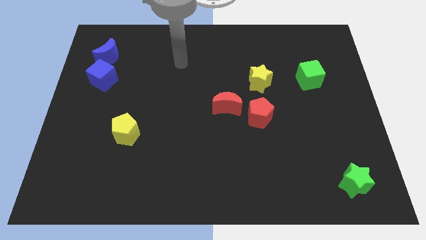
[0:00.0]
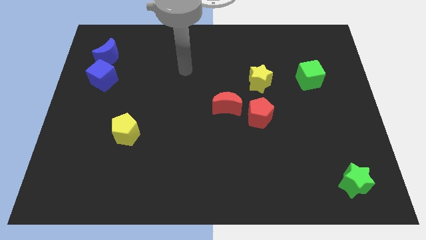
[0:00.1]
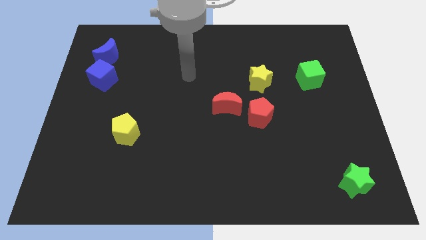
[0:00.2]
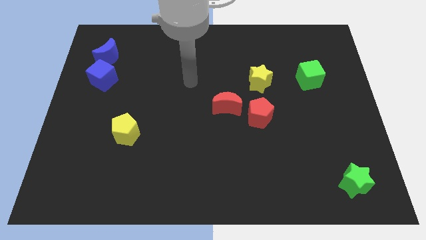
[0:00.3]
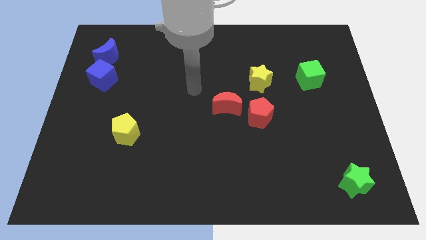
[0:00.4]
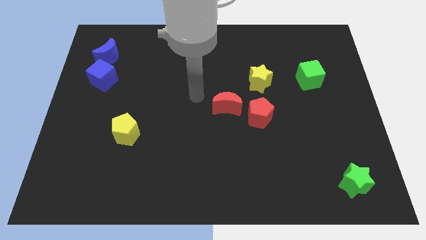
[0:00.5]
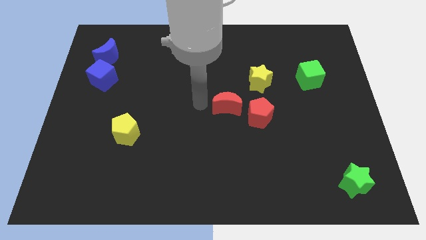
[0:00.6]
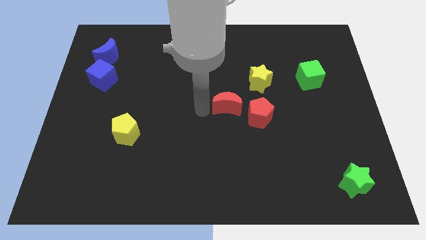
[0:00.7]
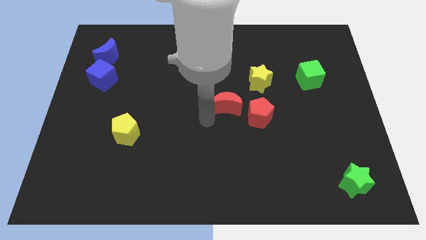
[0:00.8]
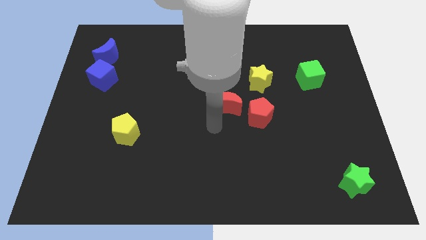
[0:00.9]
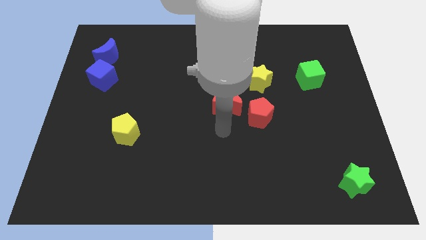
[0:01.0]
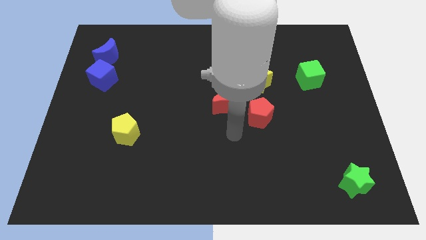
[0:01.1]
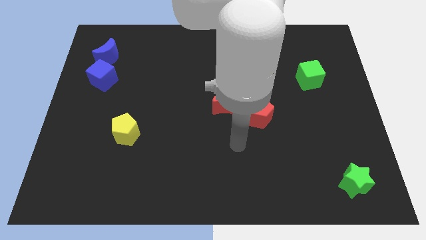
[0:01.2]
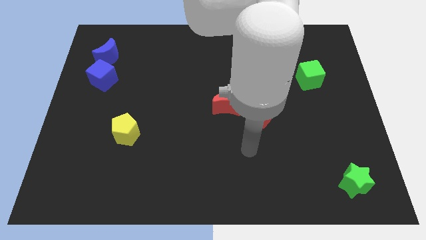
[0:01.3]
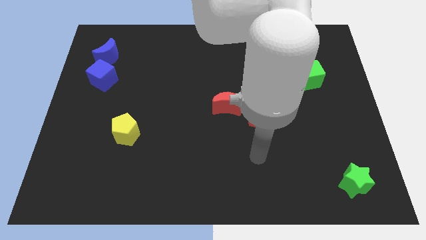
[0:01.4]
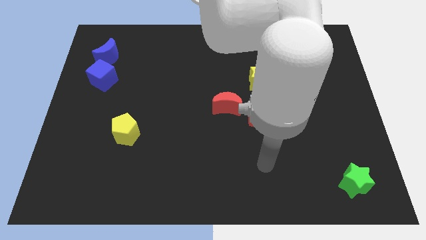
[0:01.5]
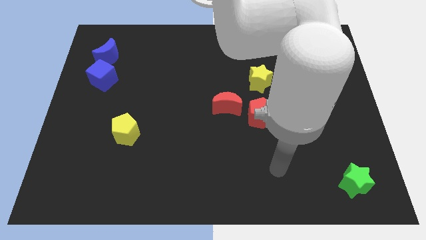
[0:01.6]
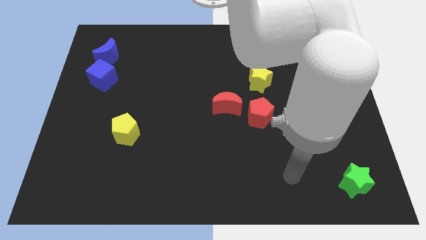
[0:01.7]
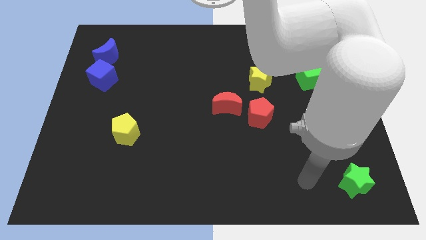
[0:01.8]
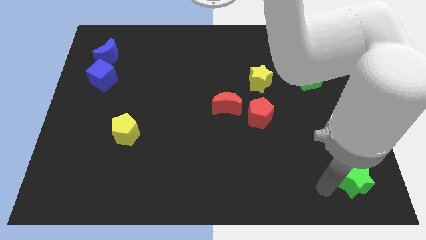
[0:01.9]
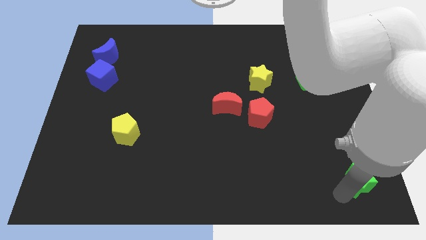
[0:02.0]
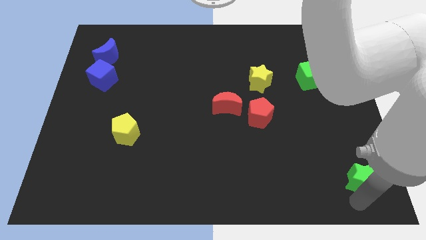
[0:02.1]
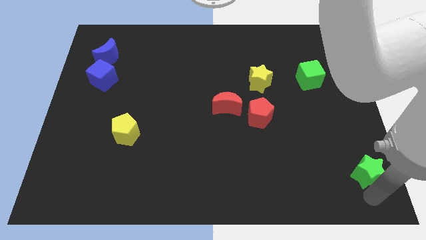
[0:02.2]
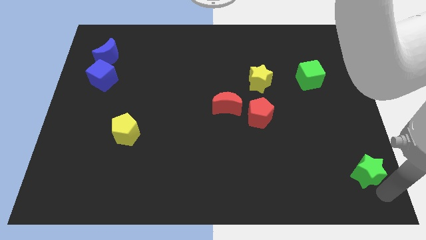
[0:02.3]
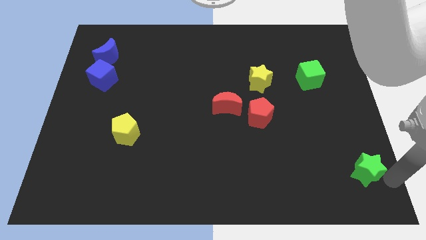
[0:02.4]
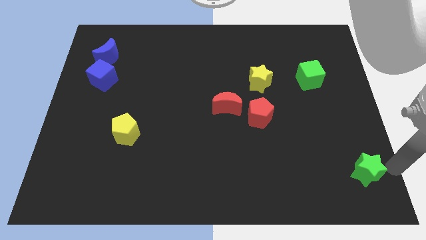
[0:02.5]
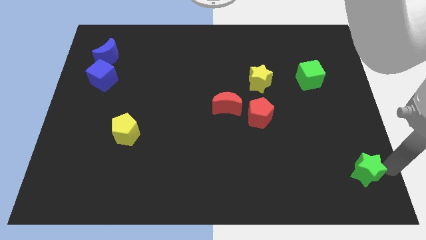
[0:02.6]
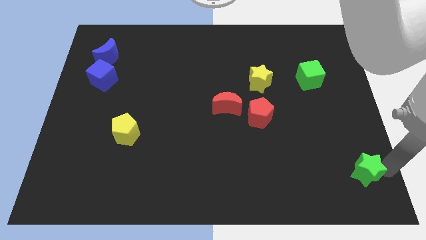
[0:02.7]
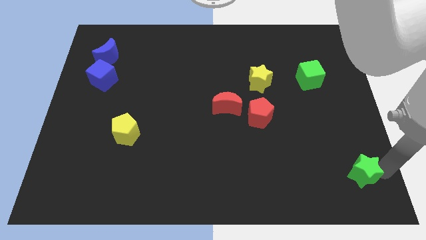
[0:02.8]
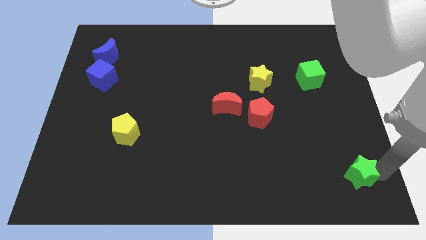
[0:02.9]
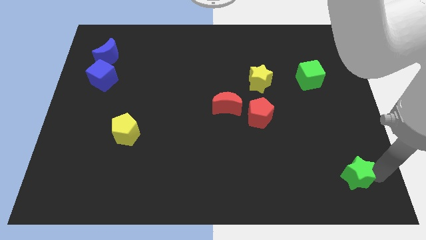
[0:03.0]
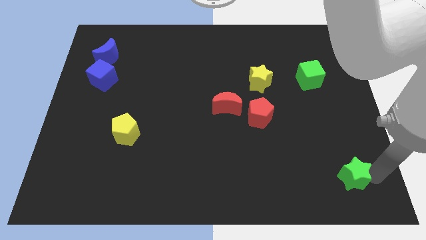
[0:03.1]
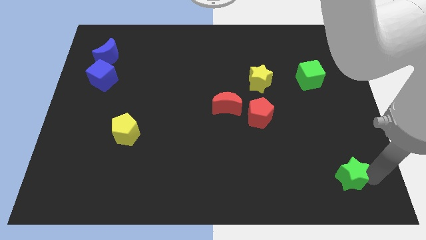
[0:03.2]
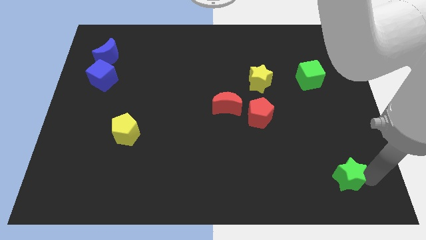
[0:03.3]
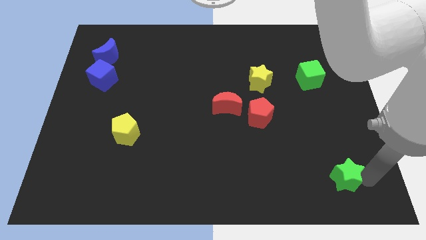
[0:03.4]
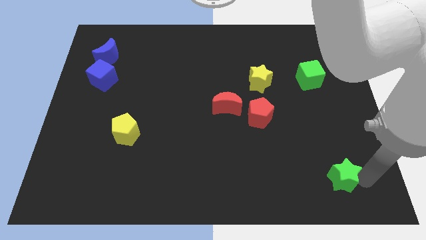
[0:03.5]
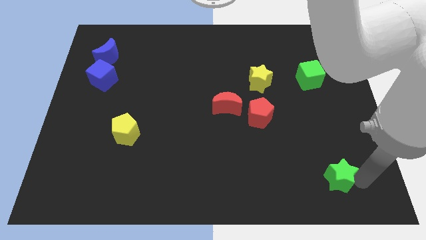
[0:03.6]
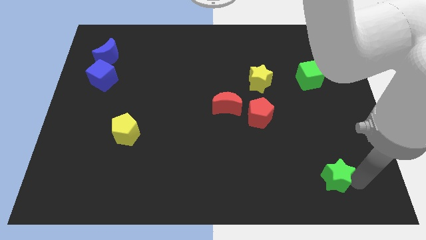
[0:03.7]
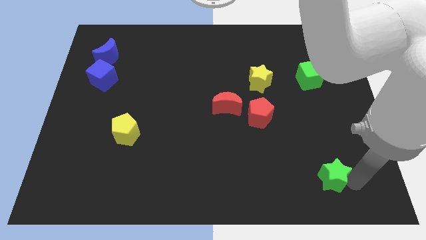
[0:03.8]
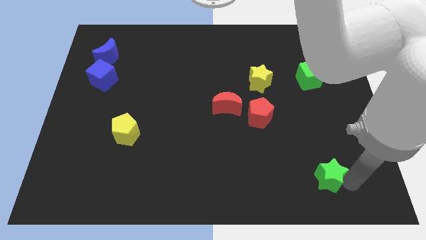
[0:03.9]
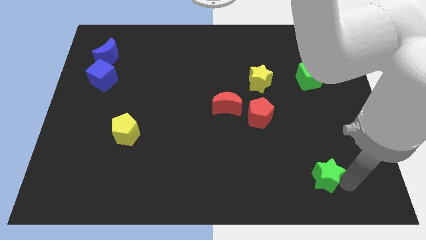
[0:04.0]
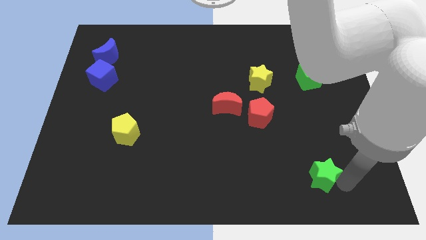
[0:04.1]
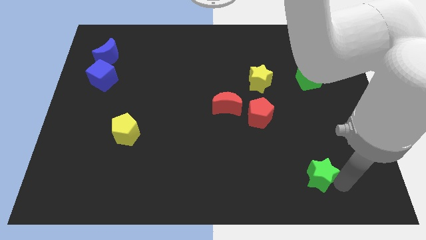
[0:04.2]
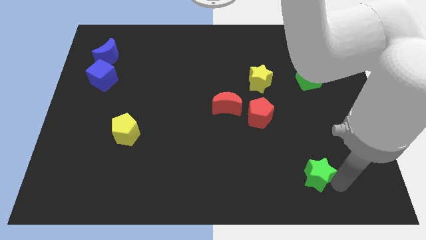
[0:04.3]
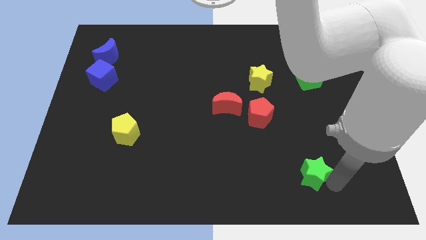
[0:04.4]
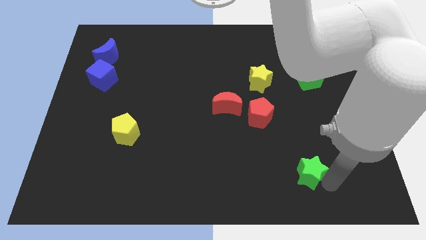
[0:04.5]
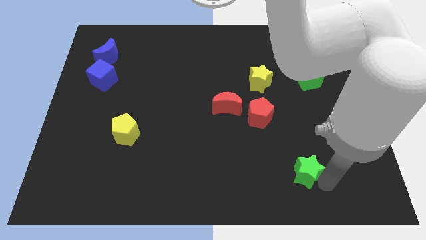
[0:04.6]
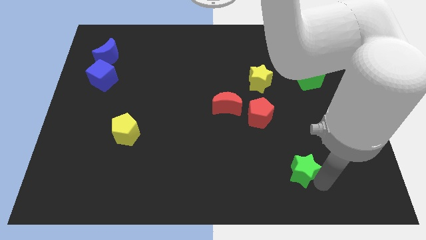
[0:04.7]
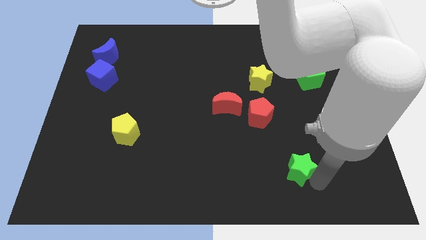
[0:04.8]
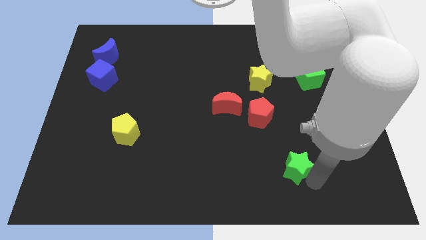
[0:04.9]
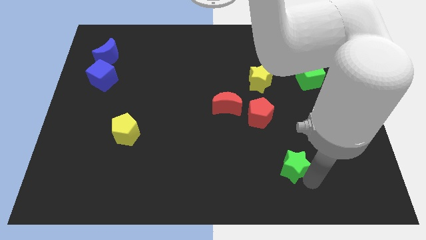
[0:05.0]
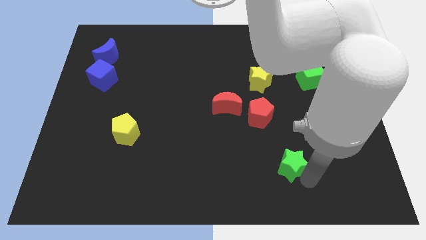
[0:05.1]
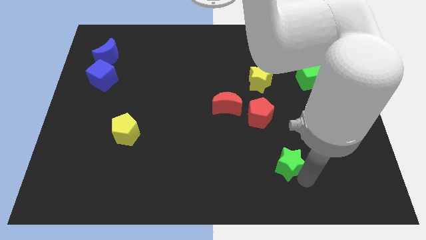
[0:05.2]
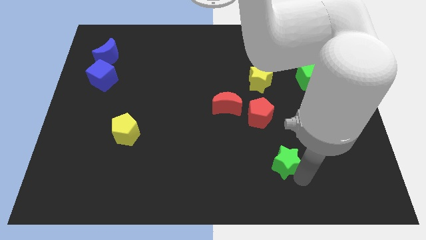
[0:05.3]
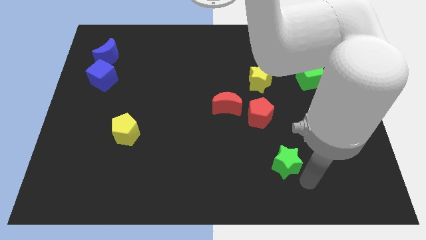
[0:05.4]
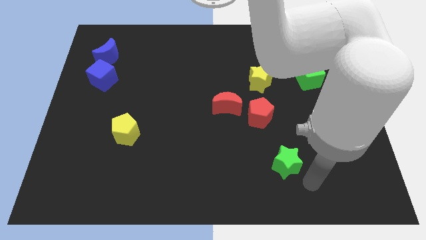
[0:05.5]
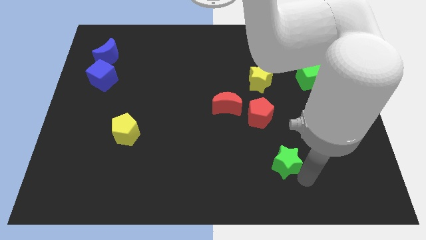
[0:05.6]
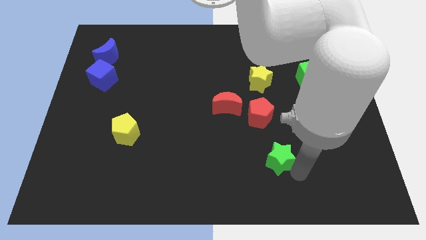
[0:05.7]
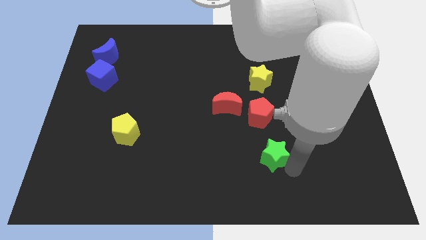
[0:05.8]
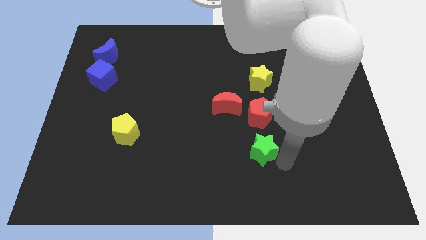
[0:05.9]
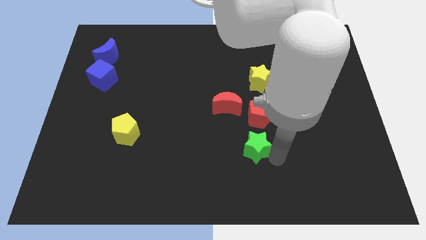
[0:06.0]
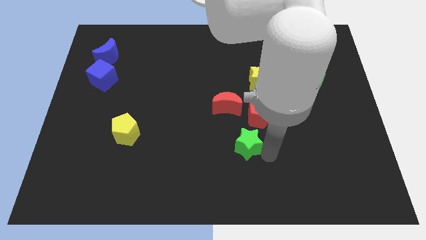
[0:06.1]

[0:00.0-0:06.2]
move the green star to the bottom left of the red pentagon

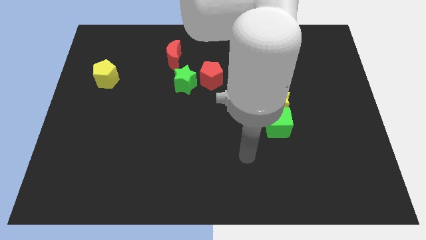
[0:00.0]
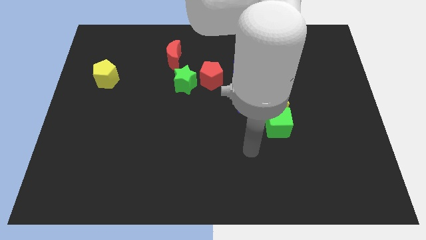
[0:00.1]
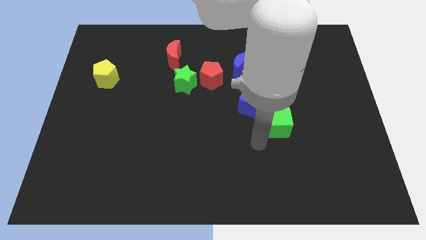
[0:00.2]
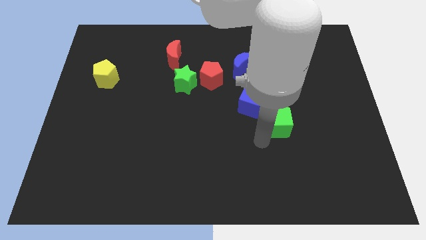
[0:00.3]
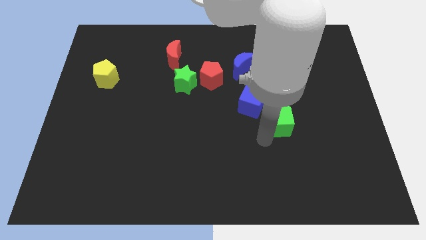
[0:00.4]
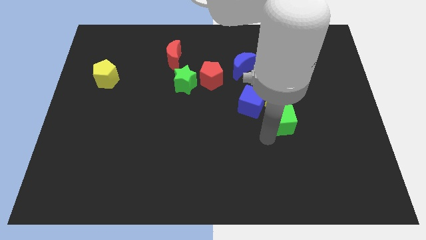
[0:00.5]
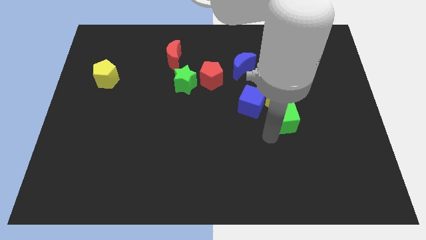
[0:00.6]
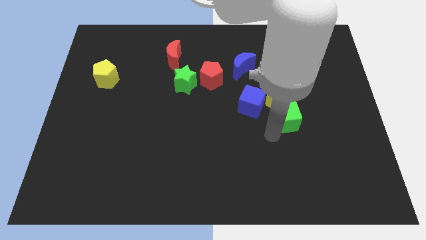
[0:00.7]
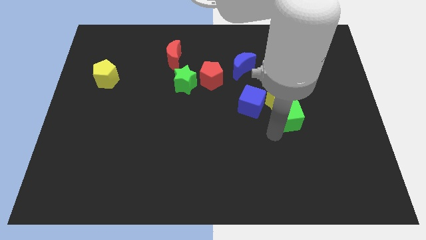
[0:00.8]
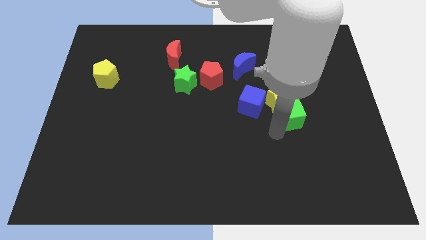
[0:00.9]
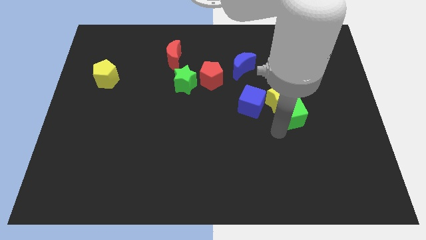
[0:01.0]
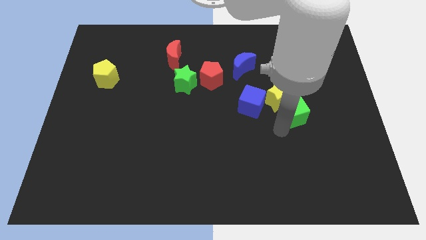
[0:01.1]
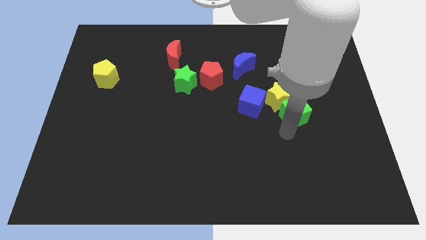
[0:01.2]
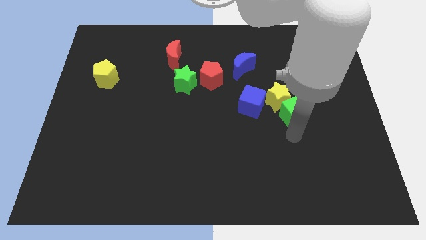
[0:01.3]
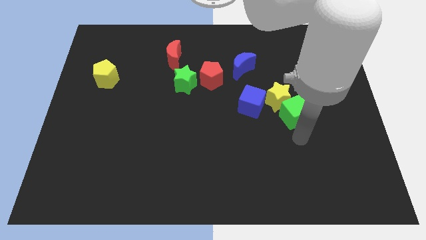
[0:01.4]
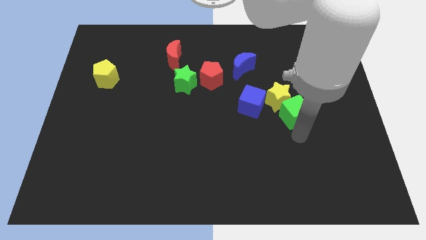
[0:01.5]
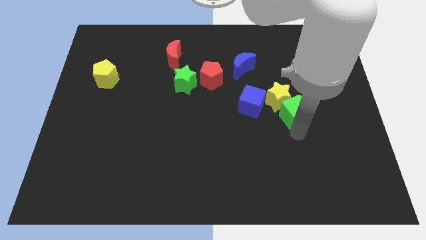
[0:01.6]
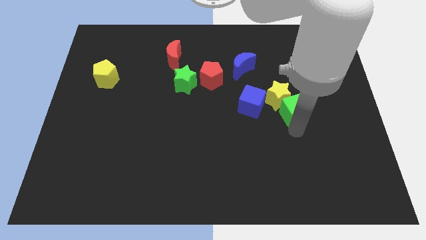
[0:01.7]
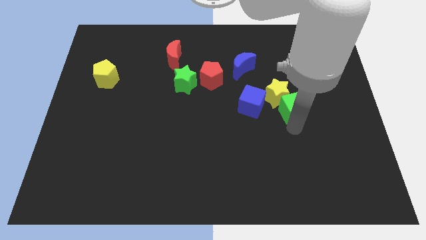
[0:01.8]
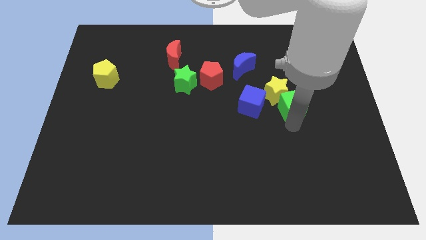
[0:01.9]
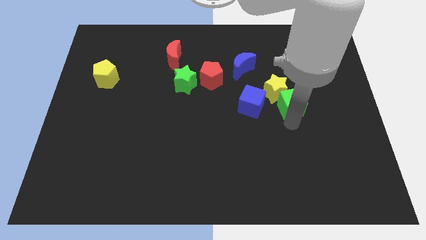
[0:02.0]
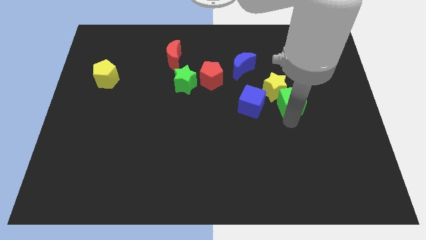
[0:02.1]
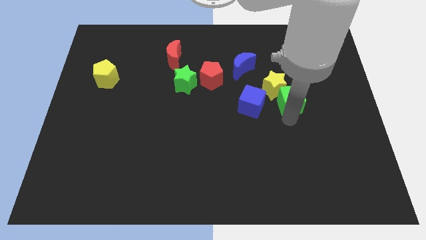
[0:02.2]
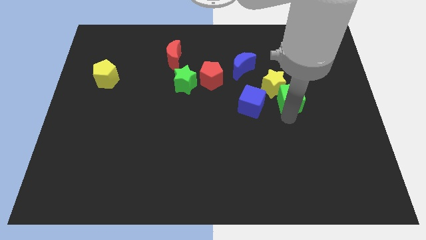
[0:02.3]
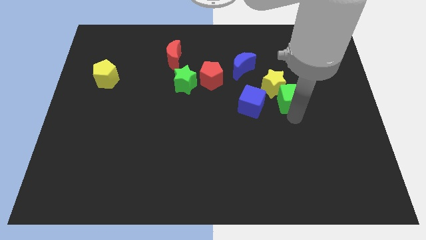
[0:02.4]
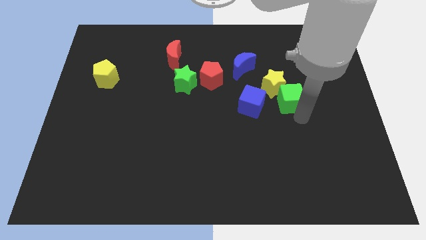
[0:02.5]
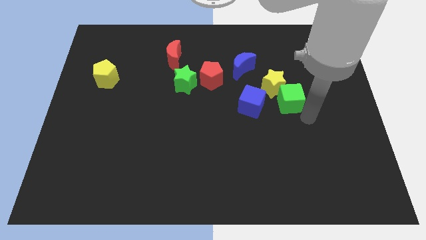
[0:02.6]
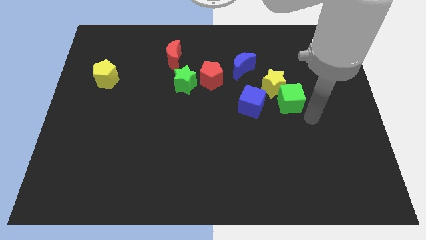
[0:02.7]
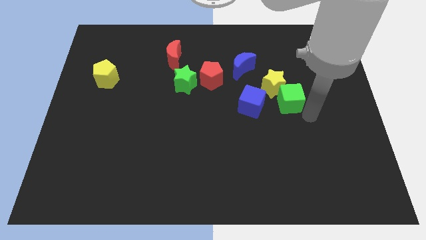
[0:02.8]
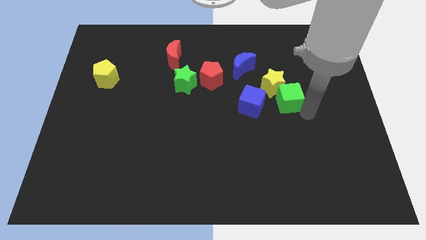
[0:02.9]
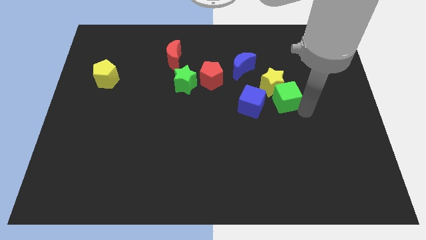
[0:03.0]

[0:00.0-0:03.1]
slide the green cube diagonally up and to the right of the blue cube
